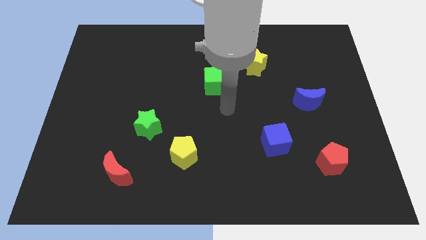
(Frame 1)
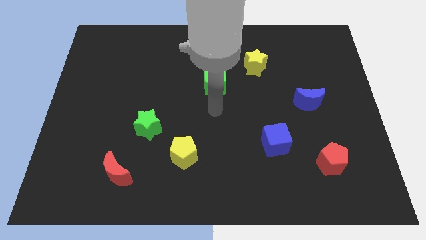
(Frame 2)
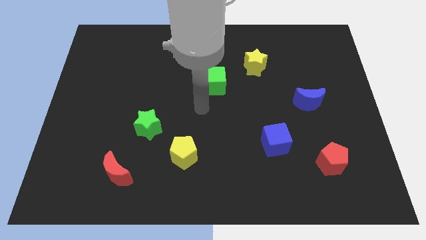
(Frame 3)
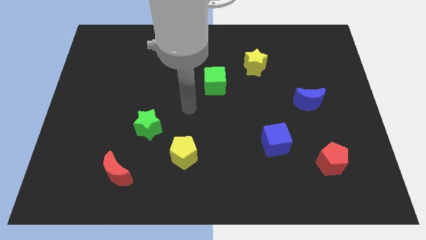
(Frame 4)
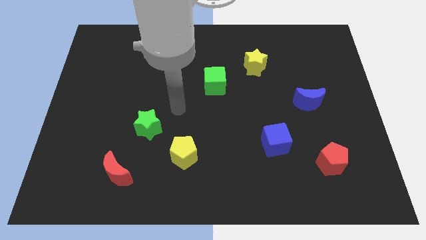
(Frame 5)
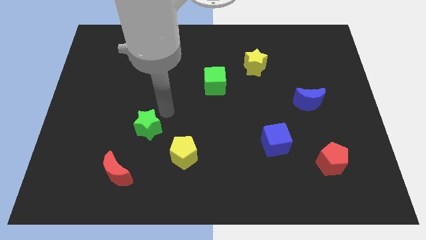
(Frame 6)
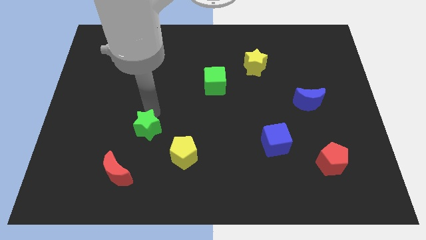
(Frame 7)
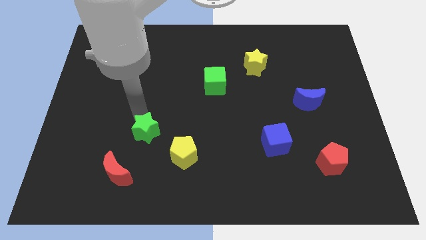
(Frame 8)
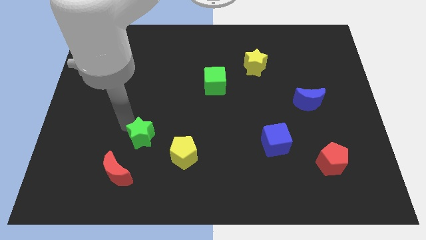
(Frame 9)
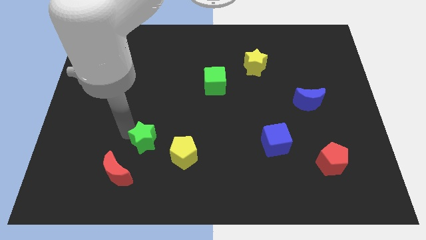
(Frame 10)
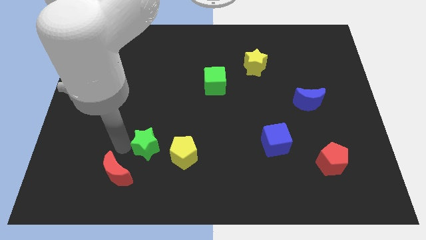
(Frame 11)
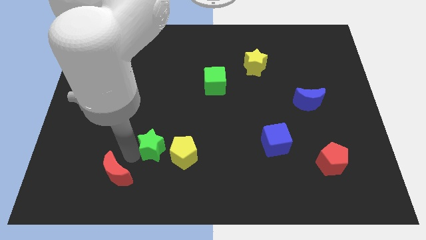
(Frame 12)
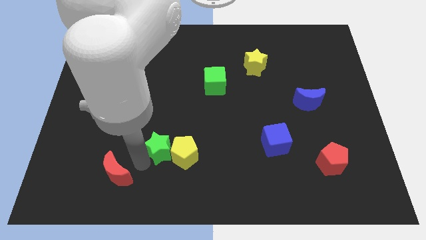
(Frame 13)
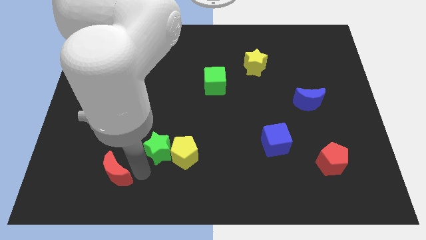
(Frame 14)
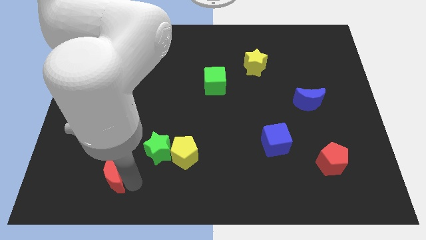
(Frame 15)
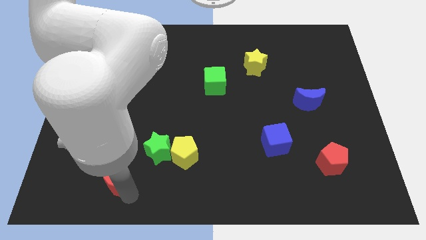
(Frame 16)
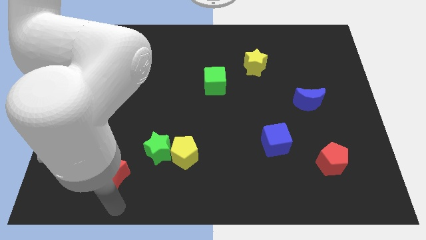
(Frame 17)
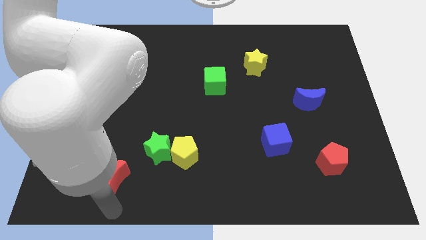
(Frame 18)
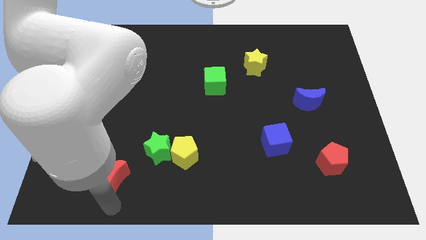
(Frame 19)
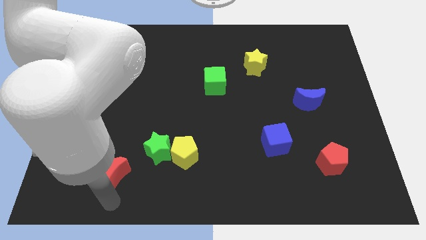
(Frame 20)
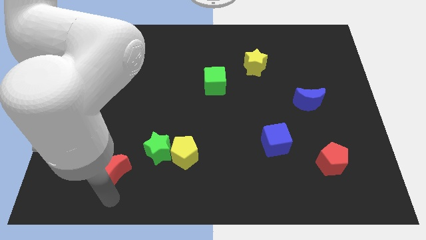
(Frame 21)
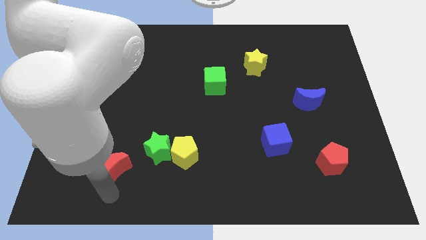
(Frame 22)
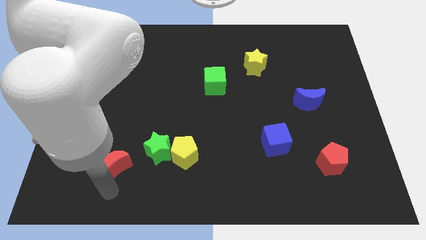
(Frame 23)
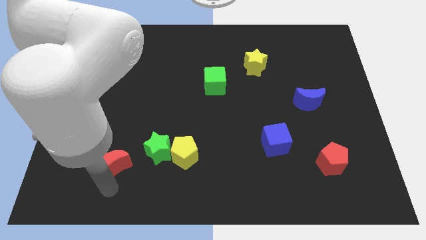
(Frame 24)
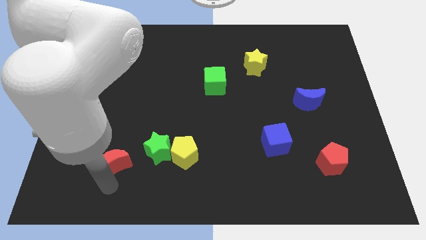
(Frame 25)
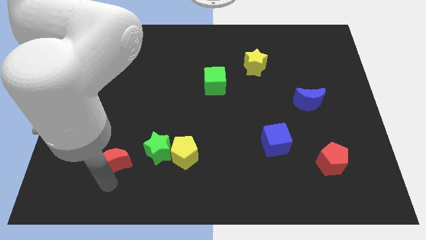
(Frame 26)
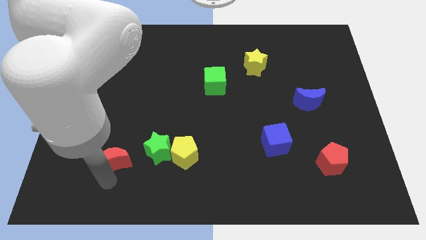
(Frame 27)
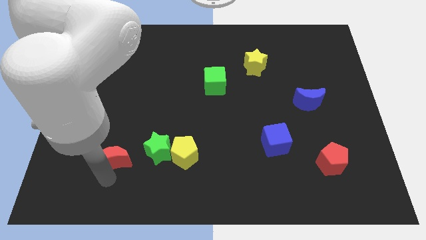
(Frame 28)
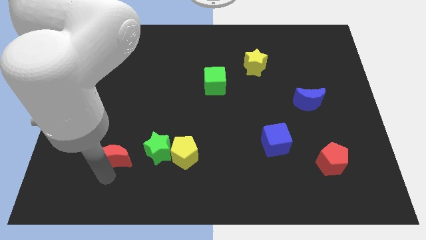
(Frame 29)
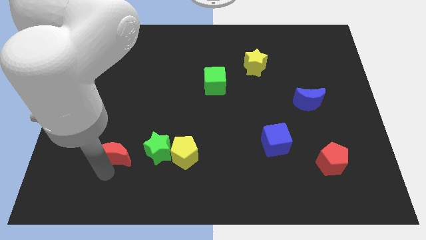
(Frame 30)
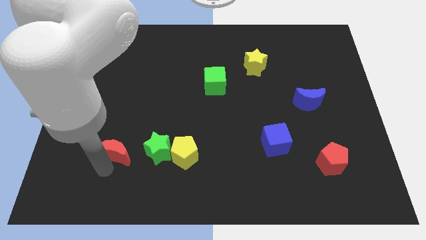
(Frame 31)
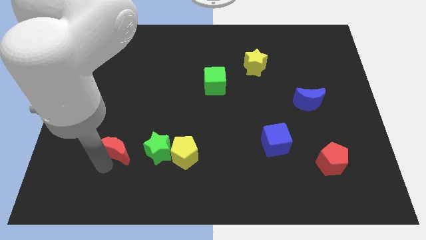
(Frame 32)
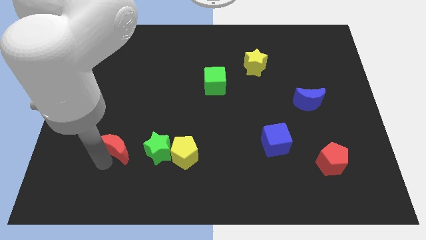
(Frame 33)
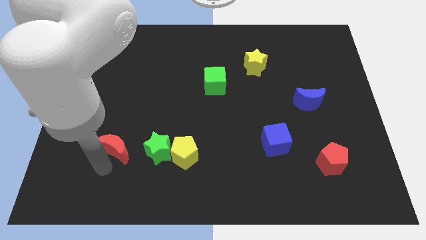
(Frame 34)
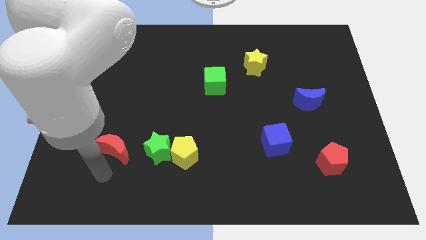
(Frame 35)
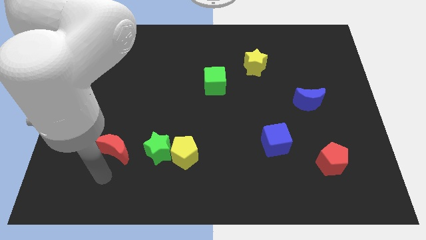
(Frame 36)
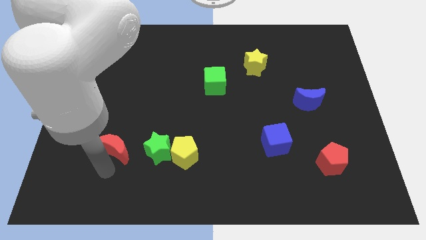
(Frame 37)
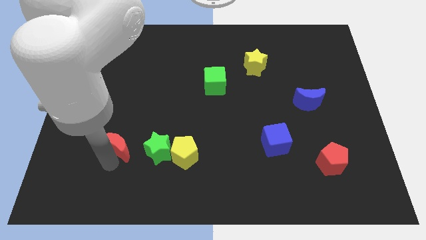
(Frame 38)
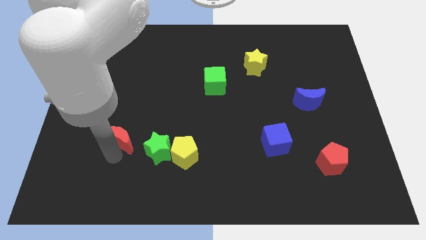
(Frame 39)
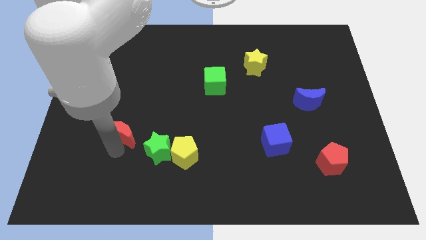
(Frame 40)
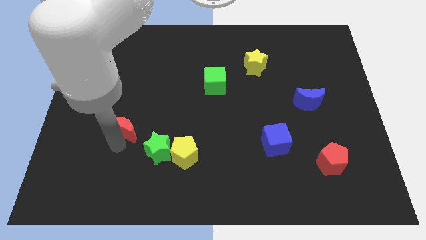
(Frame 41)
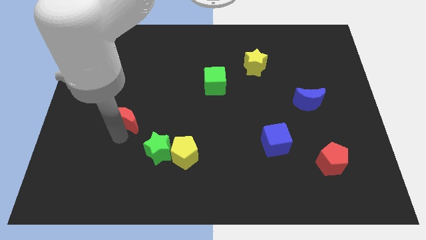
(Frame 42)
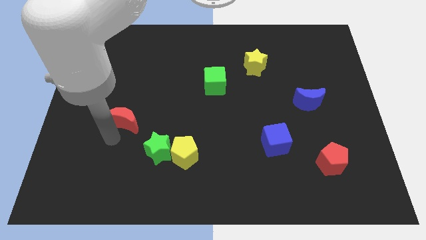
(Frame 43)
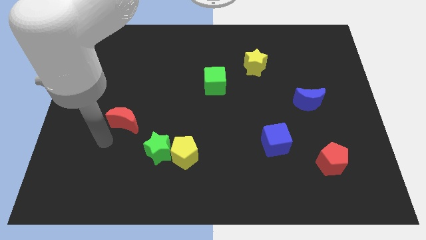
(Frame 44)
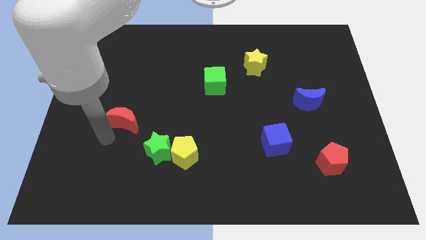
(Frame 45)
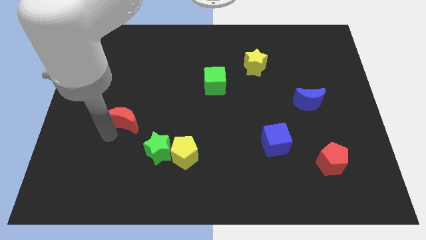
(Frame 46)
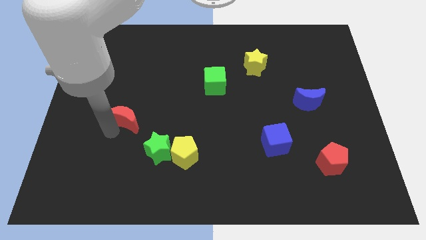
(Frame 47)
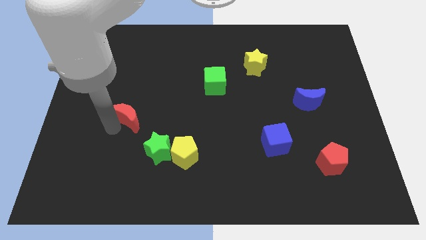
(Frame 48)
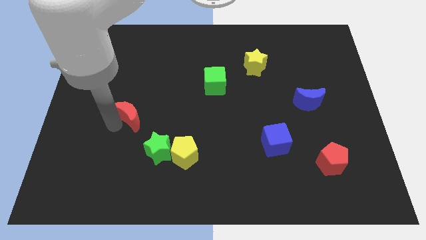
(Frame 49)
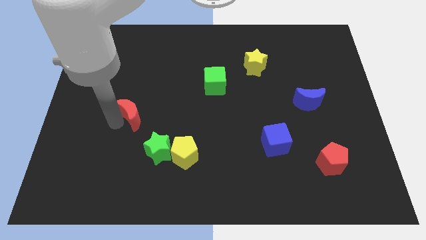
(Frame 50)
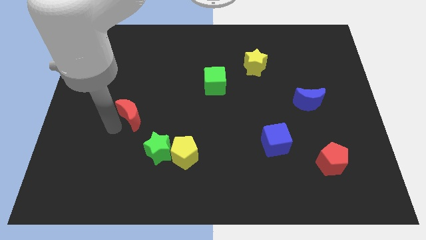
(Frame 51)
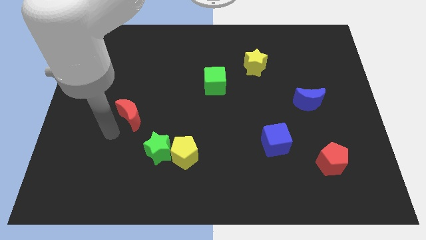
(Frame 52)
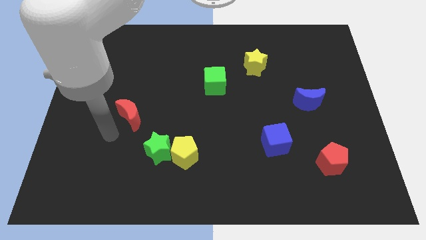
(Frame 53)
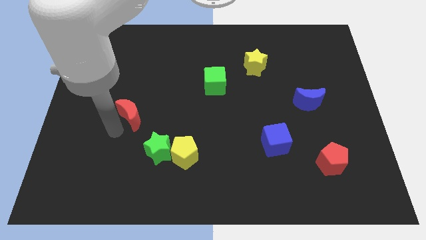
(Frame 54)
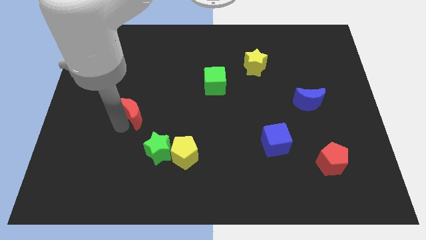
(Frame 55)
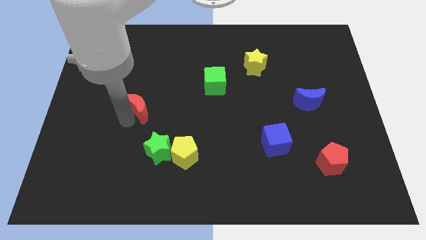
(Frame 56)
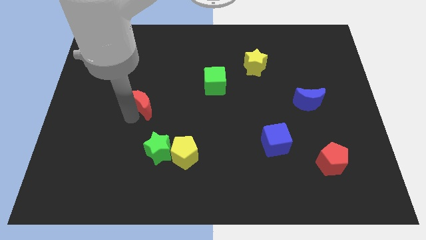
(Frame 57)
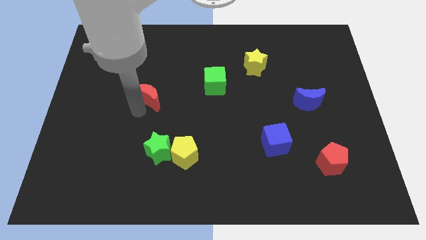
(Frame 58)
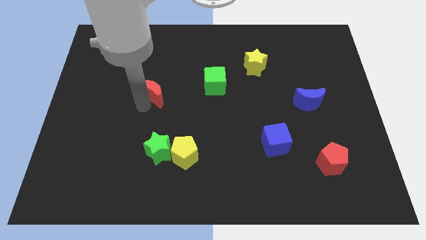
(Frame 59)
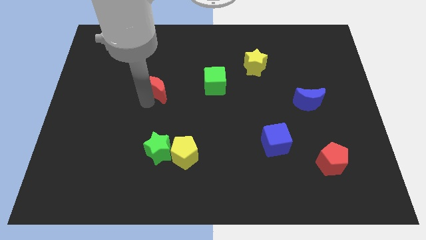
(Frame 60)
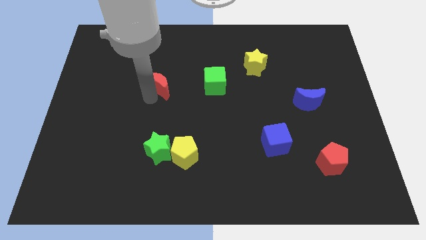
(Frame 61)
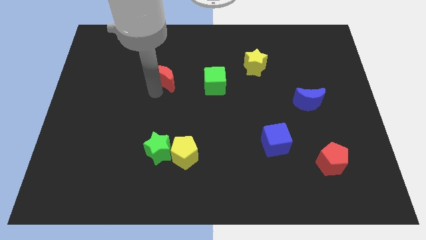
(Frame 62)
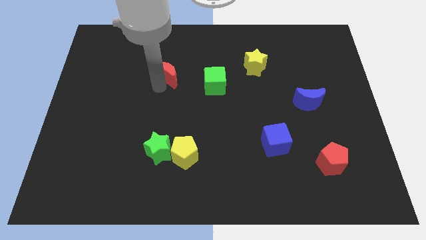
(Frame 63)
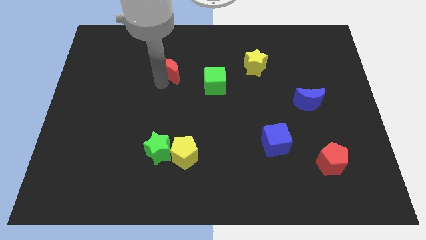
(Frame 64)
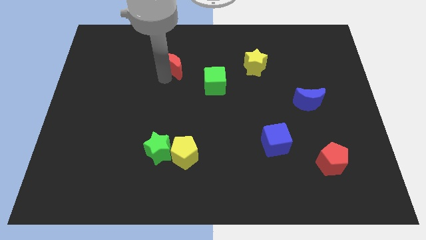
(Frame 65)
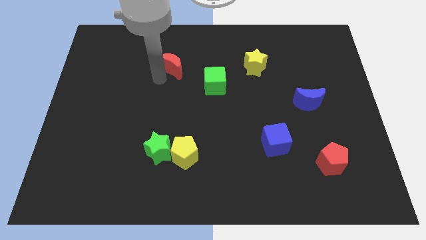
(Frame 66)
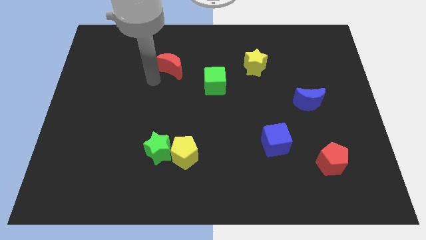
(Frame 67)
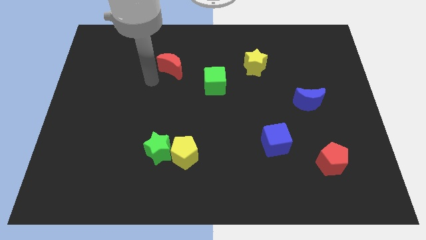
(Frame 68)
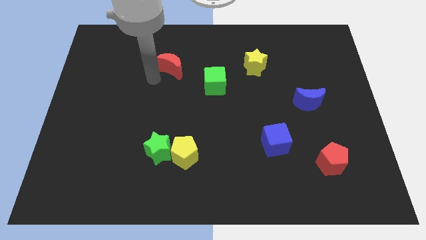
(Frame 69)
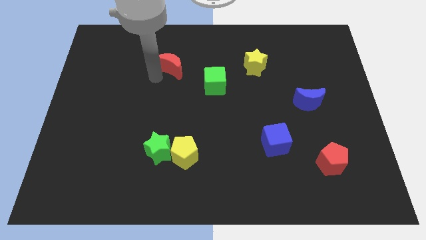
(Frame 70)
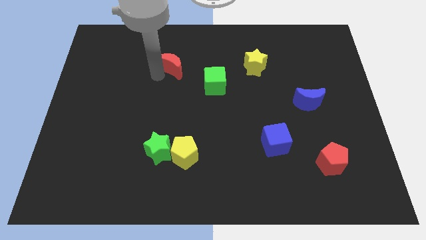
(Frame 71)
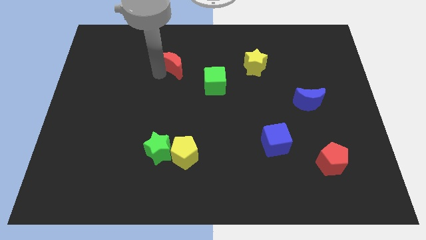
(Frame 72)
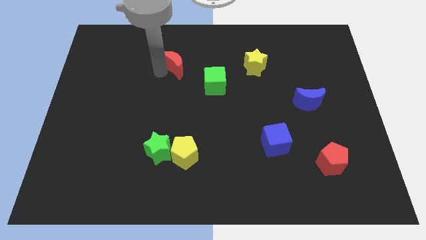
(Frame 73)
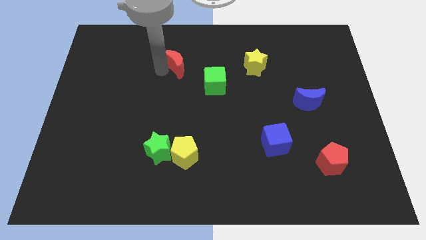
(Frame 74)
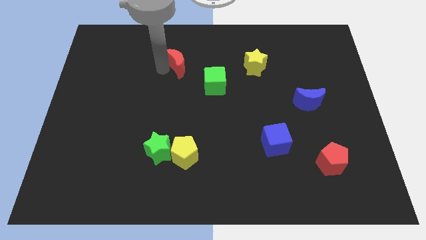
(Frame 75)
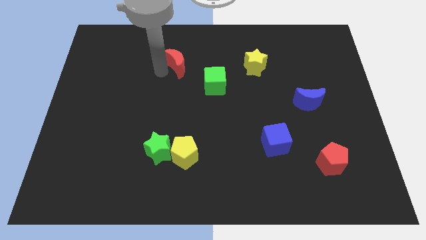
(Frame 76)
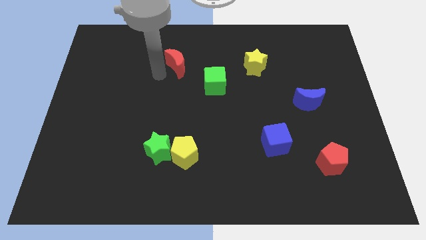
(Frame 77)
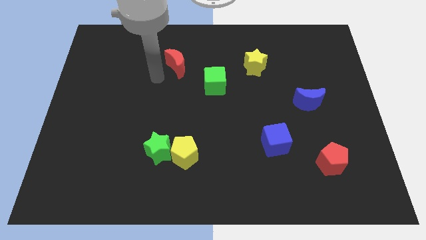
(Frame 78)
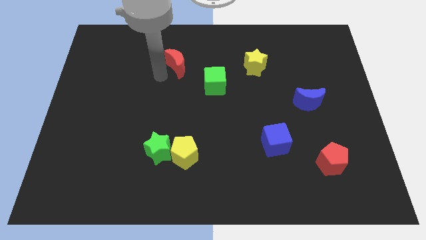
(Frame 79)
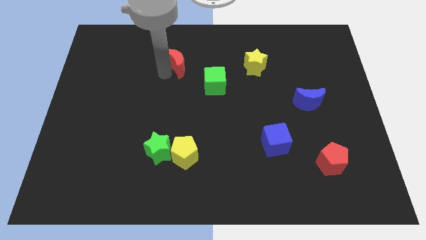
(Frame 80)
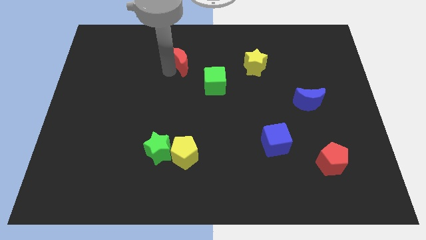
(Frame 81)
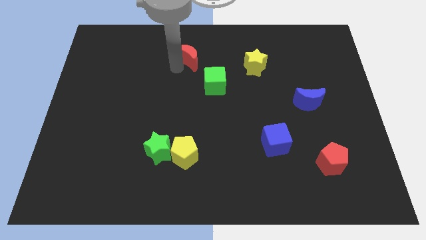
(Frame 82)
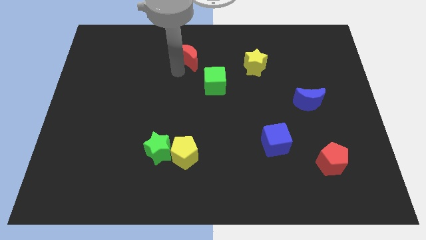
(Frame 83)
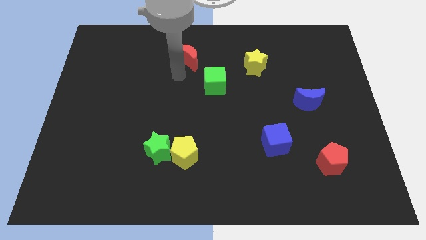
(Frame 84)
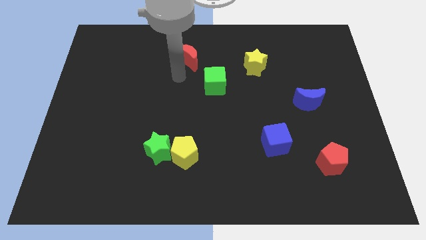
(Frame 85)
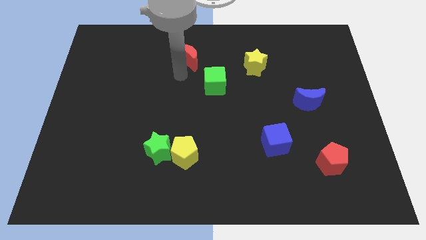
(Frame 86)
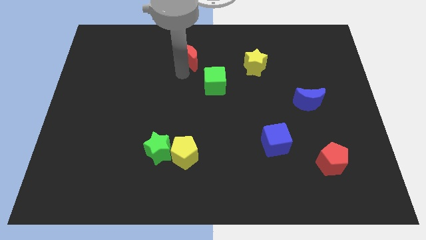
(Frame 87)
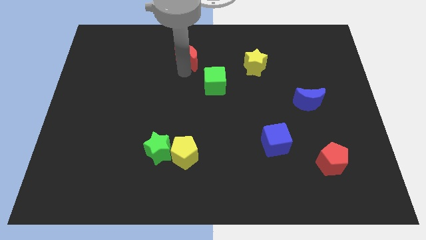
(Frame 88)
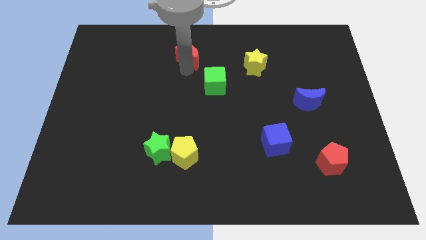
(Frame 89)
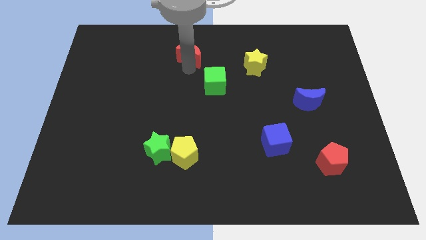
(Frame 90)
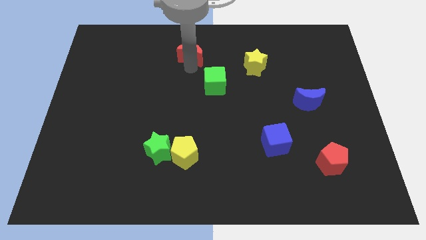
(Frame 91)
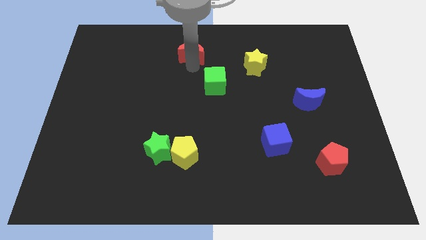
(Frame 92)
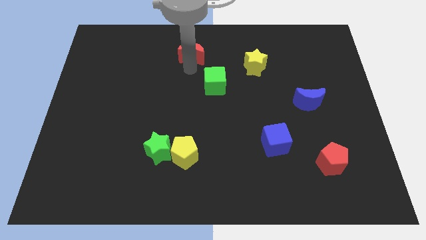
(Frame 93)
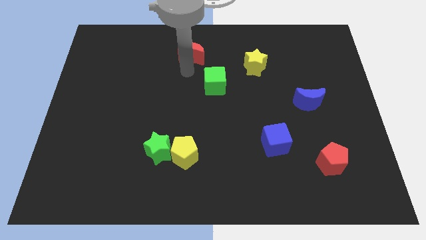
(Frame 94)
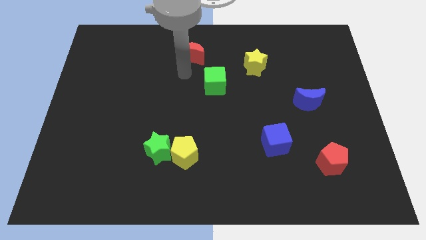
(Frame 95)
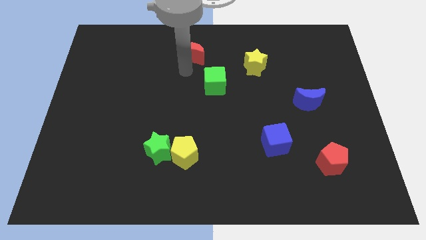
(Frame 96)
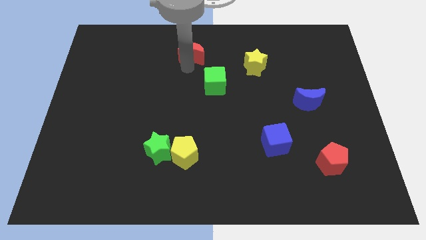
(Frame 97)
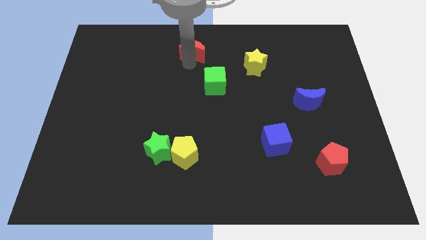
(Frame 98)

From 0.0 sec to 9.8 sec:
move the red moon to the towards your base
